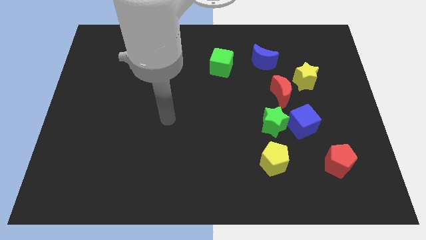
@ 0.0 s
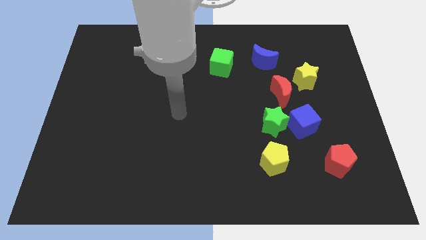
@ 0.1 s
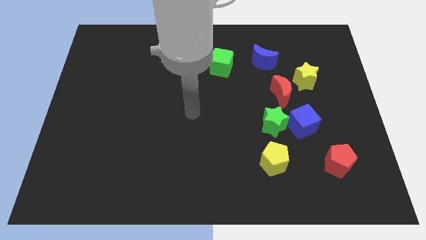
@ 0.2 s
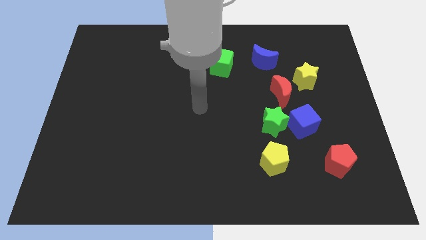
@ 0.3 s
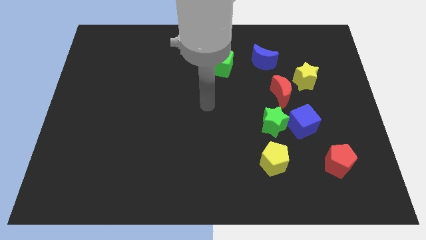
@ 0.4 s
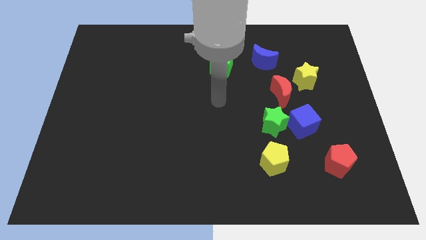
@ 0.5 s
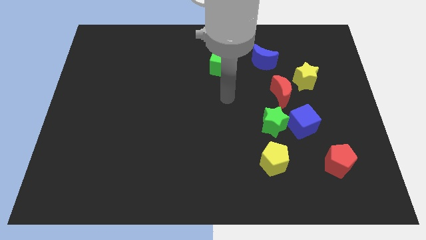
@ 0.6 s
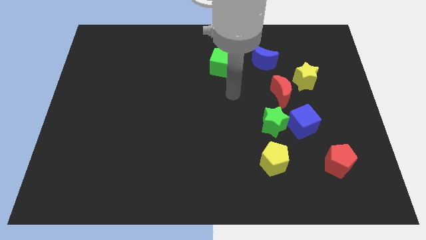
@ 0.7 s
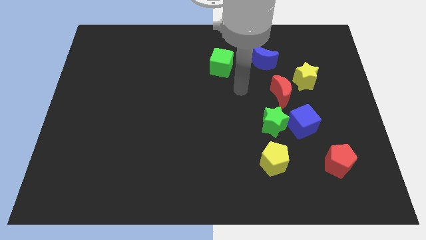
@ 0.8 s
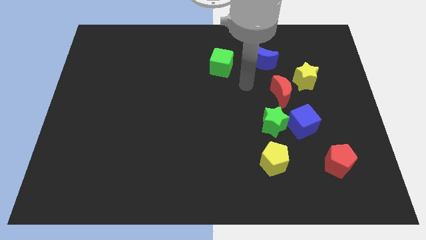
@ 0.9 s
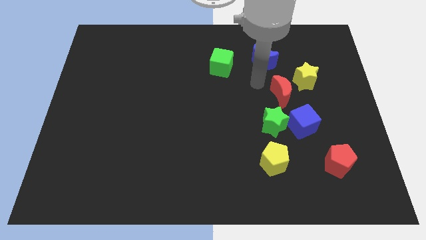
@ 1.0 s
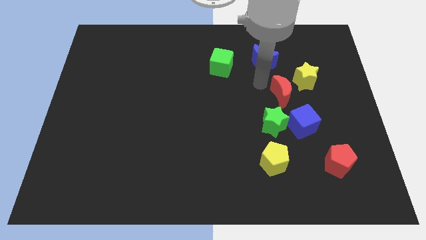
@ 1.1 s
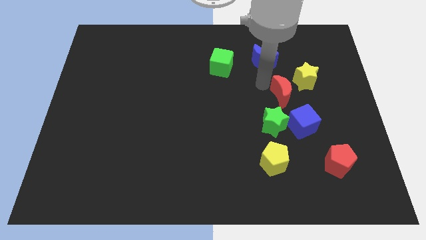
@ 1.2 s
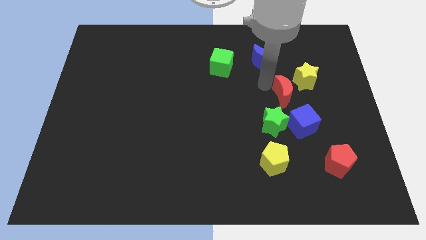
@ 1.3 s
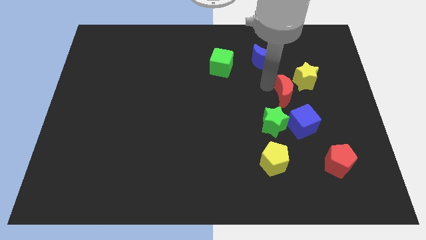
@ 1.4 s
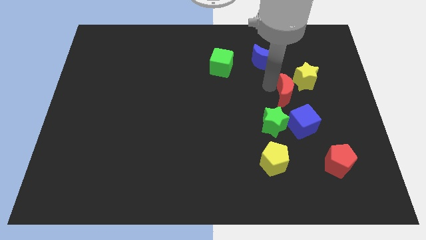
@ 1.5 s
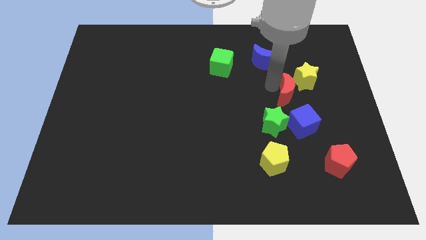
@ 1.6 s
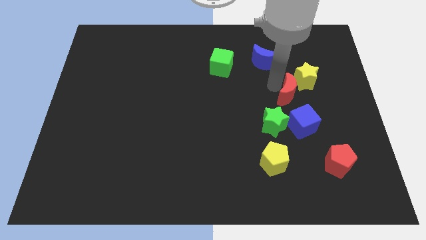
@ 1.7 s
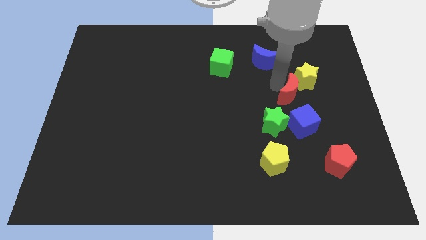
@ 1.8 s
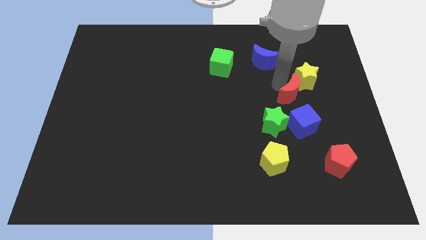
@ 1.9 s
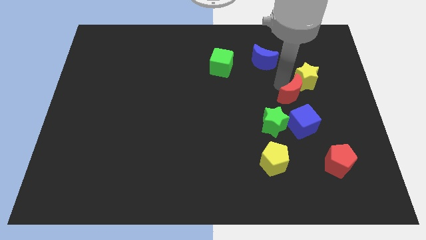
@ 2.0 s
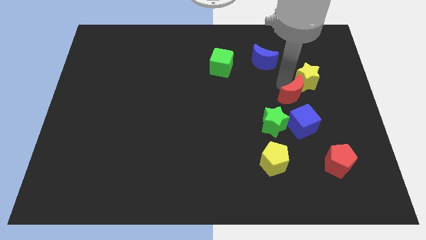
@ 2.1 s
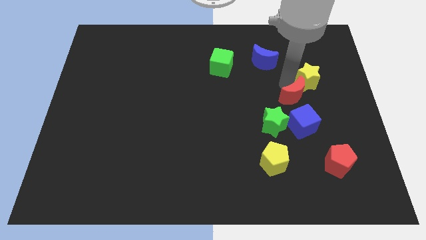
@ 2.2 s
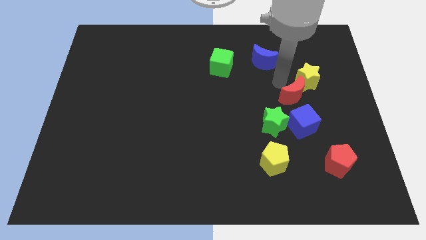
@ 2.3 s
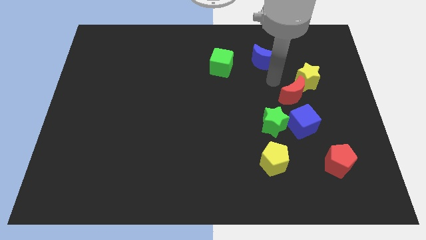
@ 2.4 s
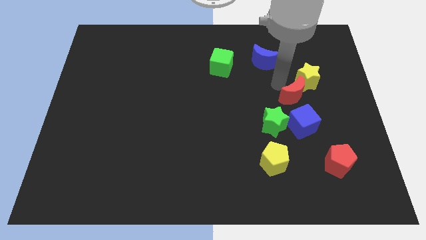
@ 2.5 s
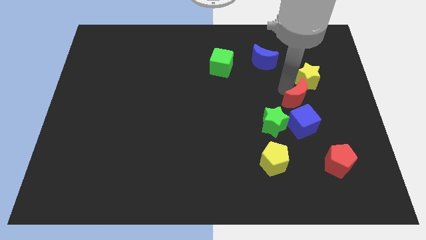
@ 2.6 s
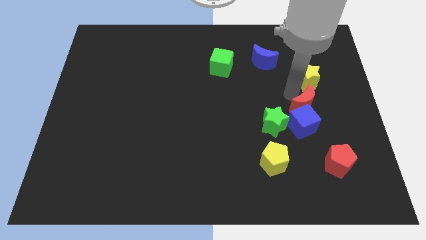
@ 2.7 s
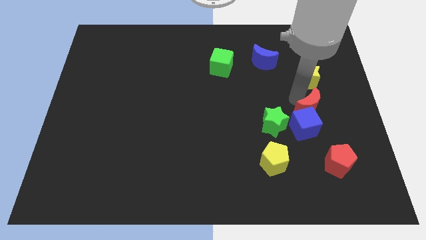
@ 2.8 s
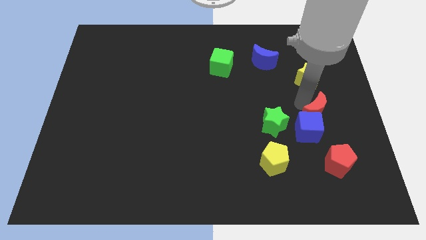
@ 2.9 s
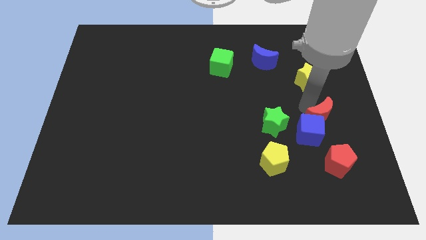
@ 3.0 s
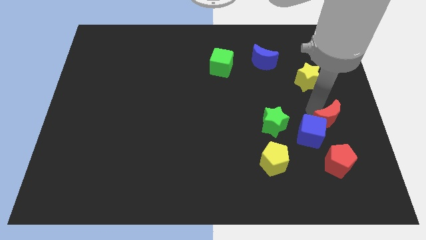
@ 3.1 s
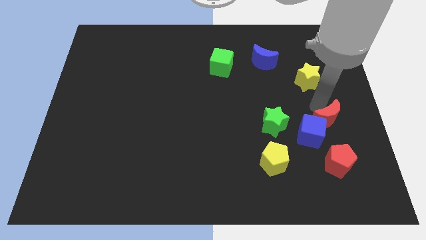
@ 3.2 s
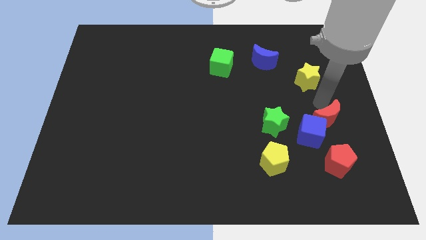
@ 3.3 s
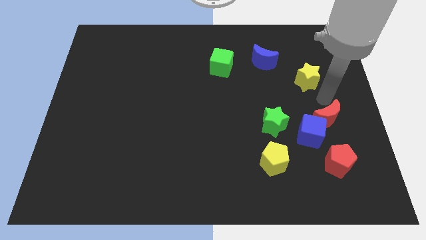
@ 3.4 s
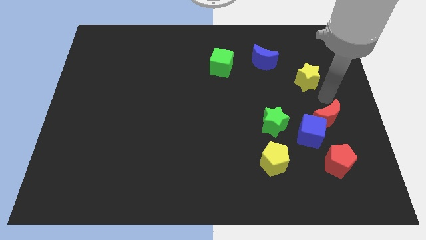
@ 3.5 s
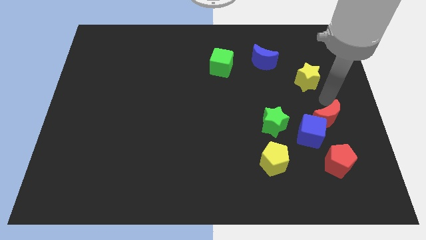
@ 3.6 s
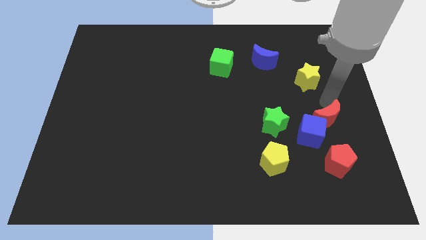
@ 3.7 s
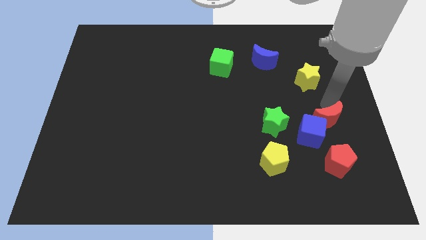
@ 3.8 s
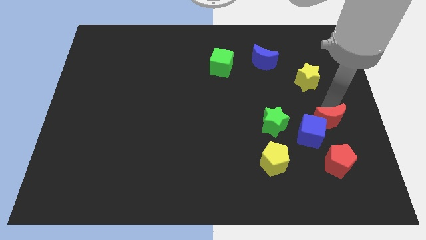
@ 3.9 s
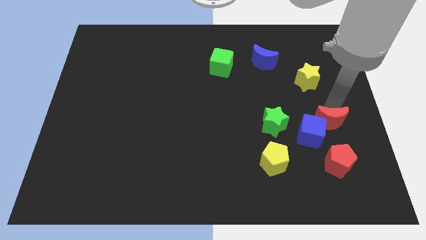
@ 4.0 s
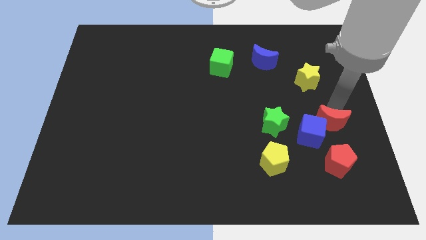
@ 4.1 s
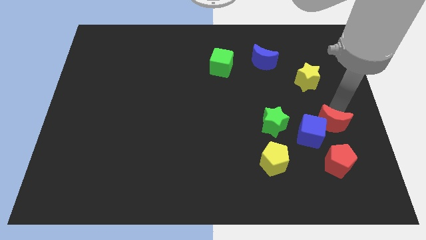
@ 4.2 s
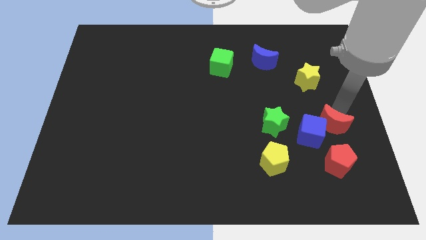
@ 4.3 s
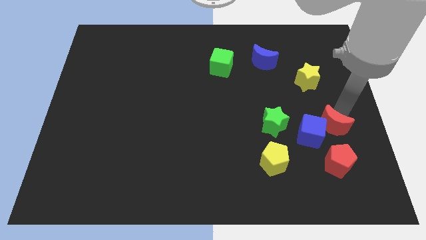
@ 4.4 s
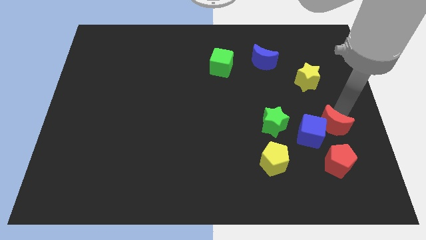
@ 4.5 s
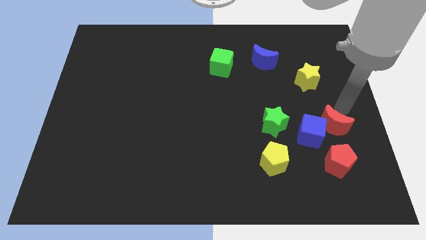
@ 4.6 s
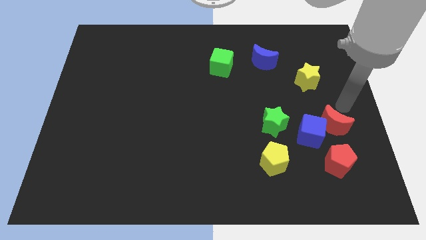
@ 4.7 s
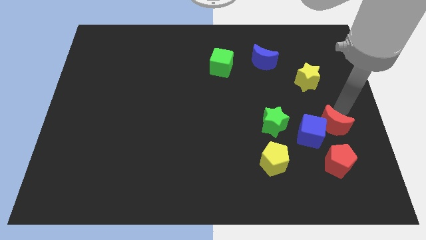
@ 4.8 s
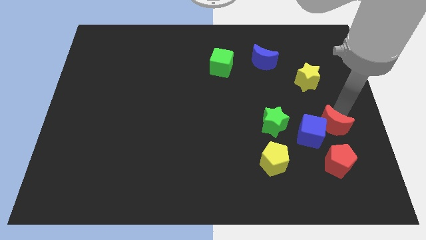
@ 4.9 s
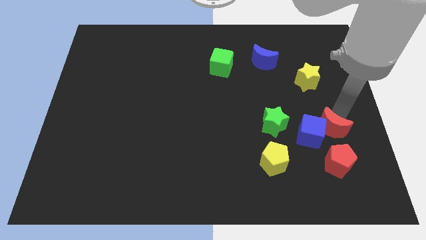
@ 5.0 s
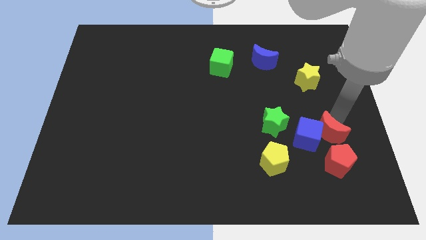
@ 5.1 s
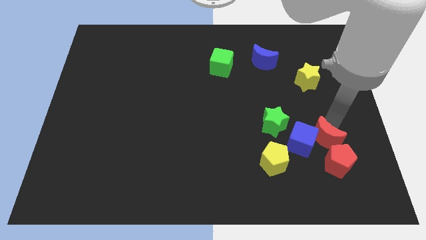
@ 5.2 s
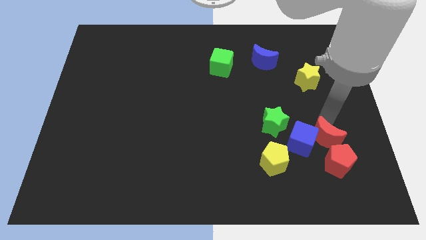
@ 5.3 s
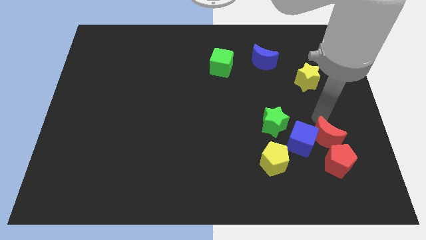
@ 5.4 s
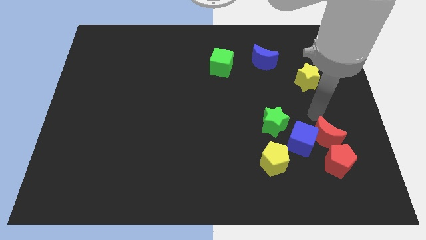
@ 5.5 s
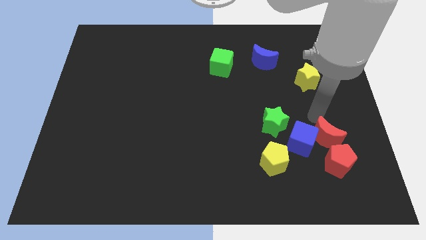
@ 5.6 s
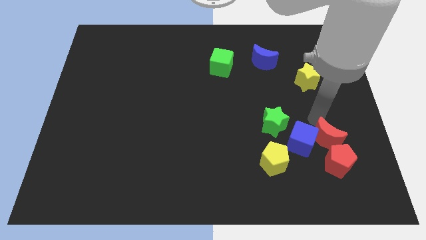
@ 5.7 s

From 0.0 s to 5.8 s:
push the red moon to the red pentagon

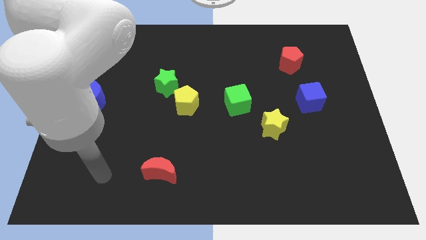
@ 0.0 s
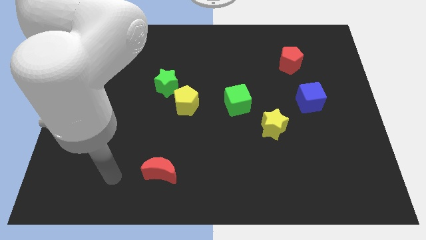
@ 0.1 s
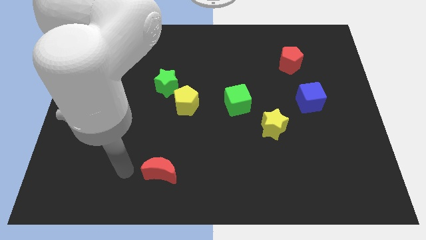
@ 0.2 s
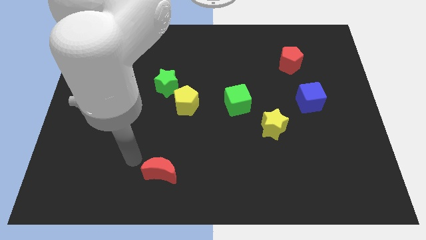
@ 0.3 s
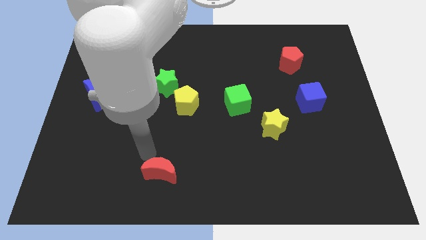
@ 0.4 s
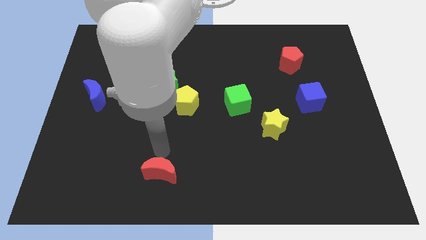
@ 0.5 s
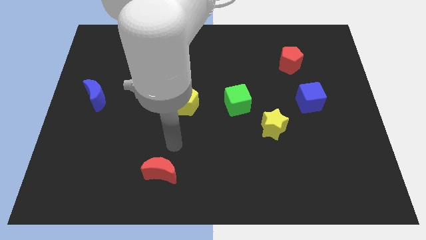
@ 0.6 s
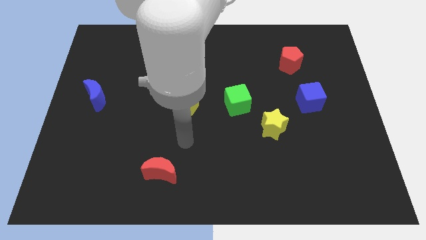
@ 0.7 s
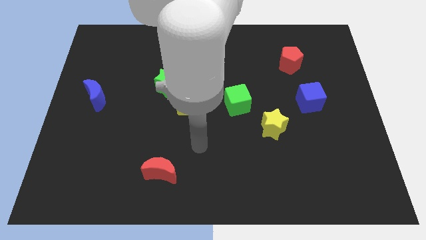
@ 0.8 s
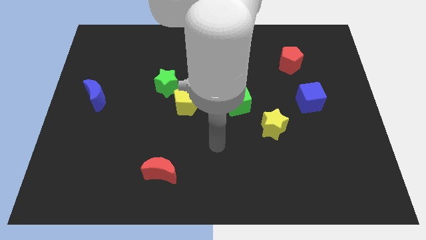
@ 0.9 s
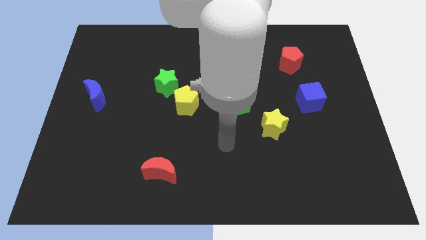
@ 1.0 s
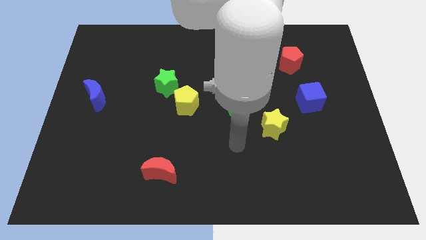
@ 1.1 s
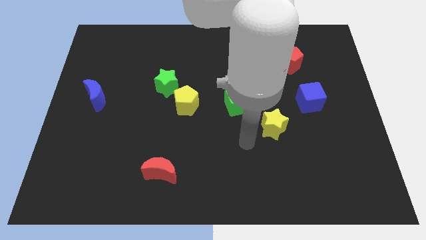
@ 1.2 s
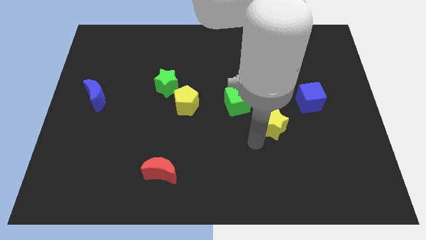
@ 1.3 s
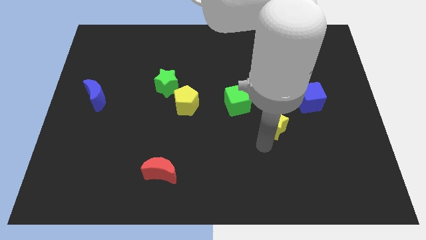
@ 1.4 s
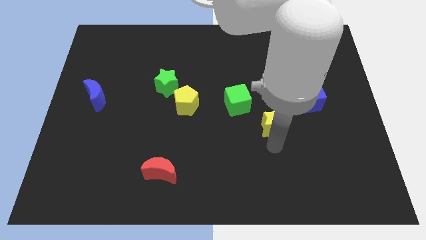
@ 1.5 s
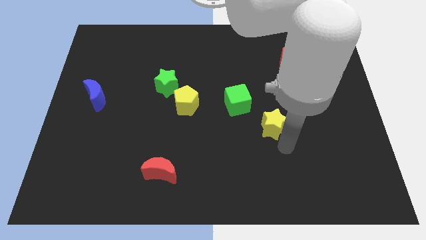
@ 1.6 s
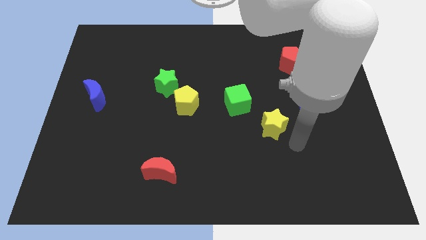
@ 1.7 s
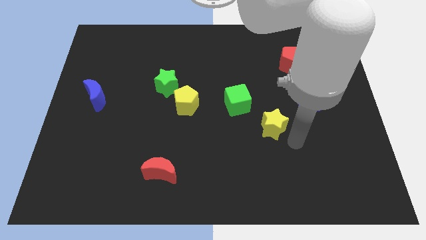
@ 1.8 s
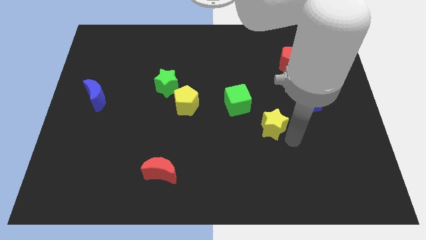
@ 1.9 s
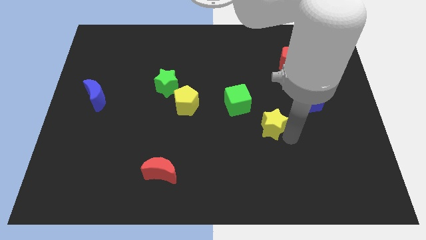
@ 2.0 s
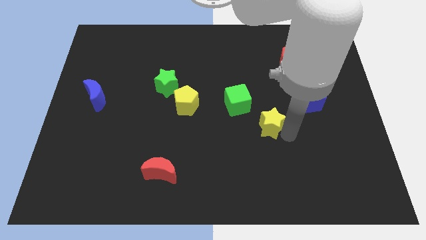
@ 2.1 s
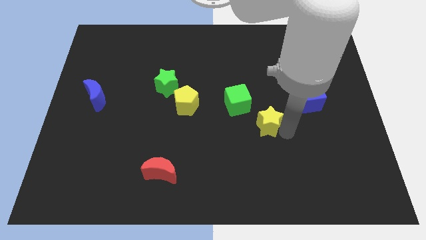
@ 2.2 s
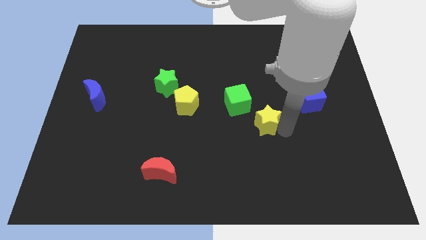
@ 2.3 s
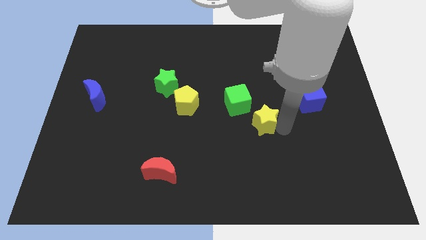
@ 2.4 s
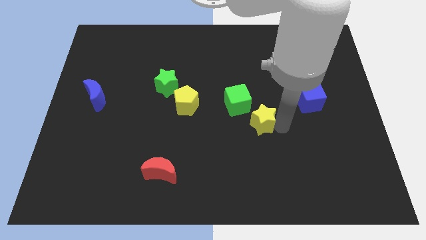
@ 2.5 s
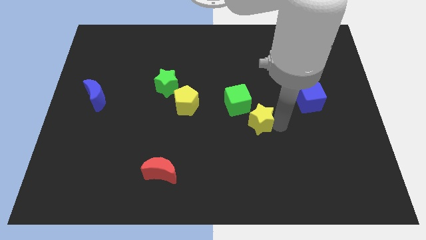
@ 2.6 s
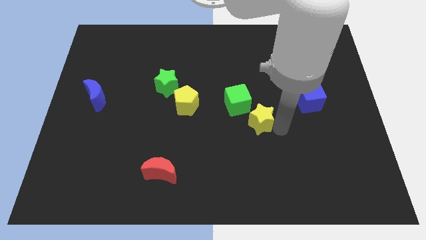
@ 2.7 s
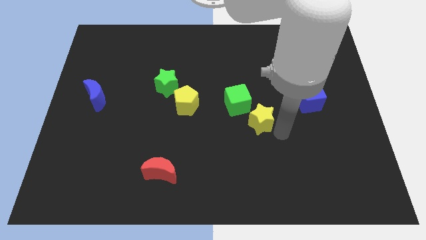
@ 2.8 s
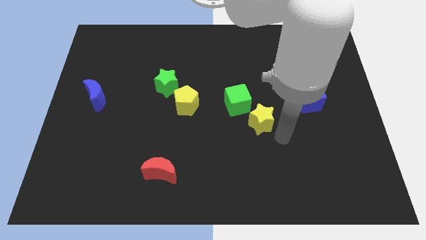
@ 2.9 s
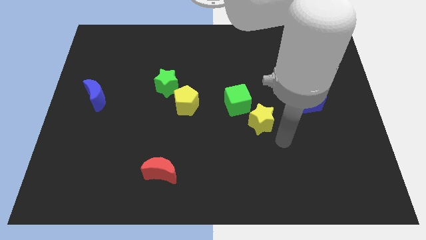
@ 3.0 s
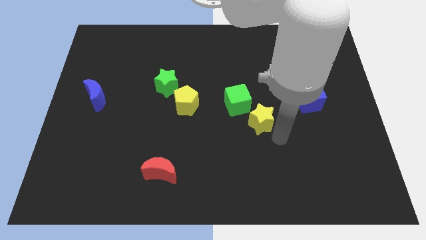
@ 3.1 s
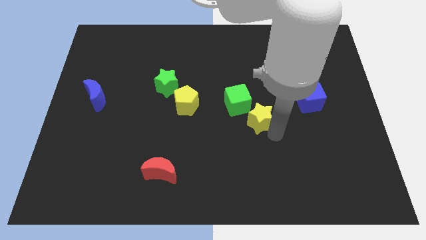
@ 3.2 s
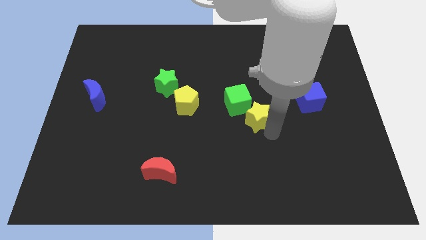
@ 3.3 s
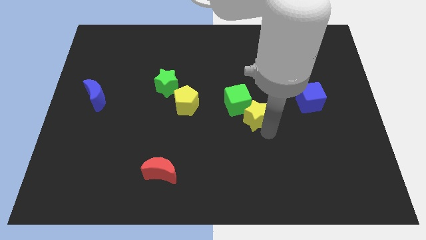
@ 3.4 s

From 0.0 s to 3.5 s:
put the yellow star towards the green cube
